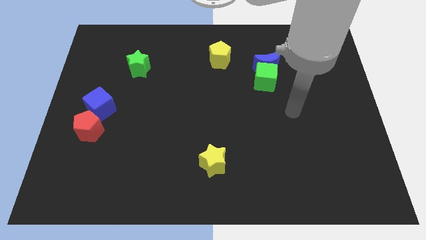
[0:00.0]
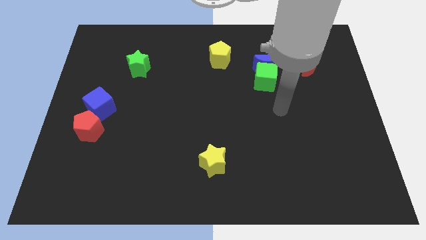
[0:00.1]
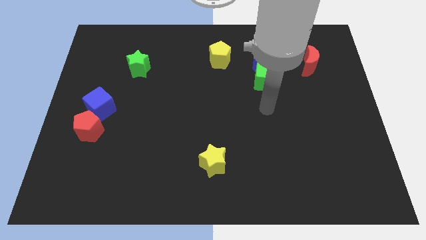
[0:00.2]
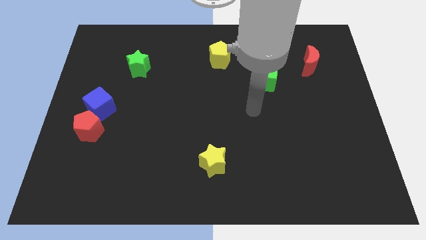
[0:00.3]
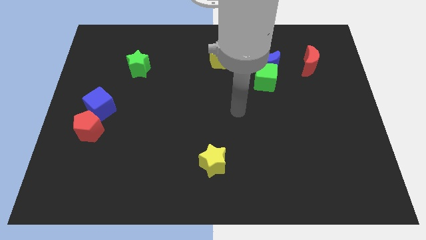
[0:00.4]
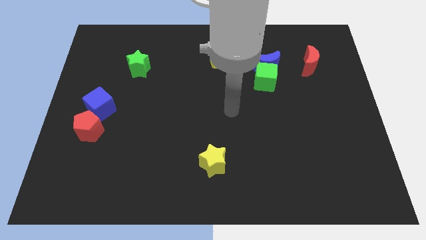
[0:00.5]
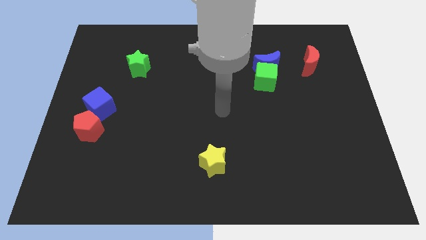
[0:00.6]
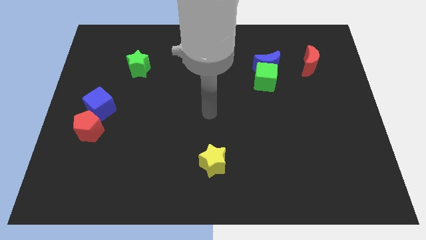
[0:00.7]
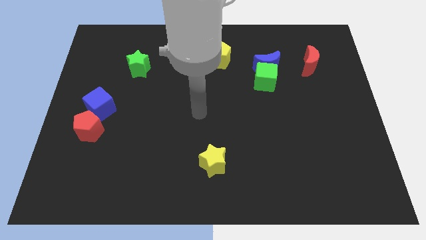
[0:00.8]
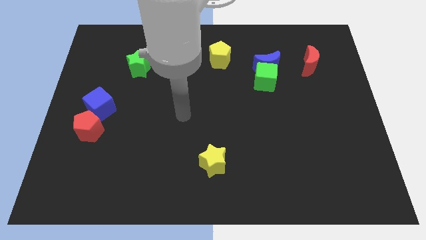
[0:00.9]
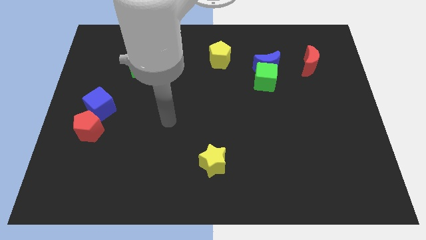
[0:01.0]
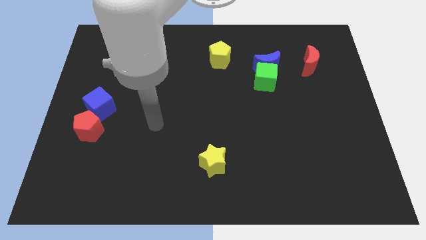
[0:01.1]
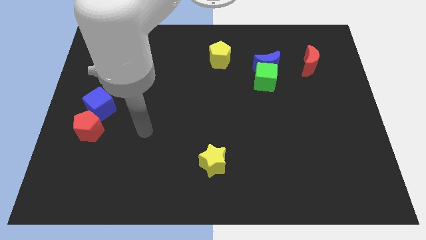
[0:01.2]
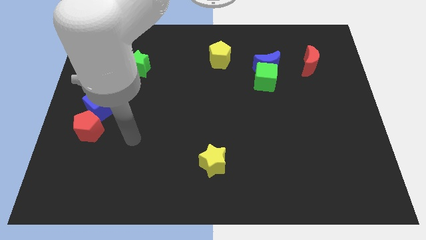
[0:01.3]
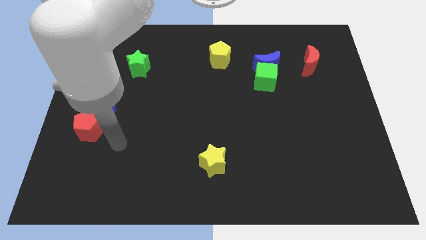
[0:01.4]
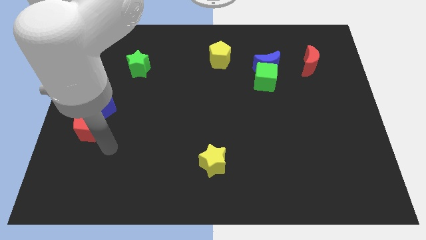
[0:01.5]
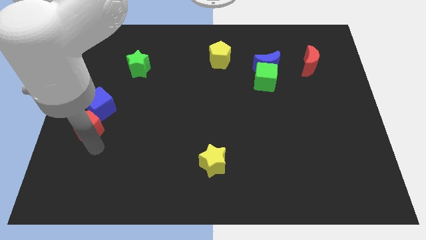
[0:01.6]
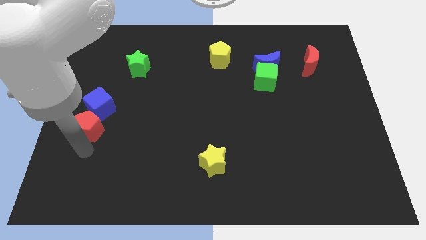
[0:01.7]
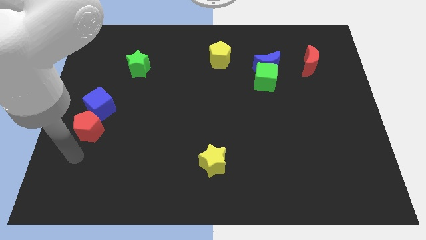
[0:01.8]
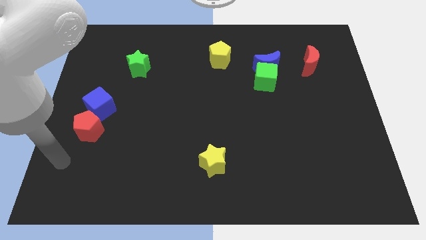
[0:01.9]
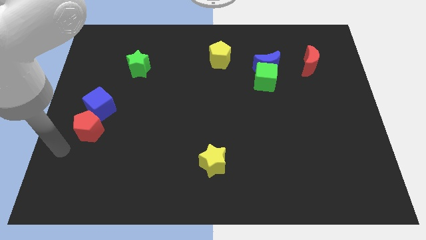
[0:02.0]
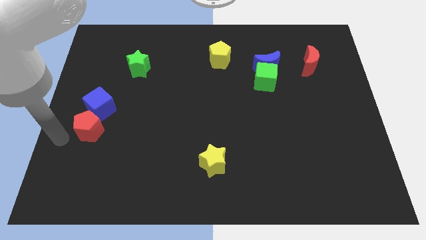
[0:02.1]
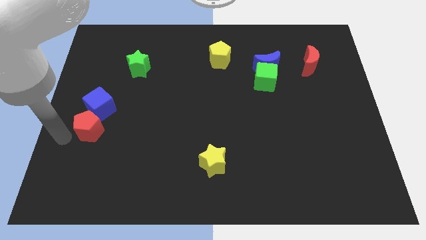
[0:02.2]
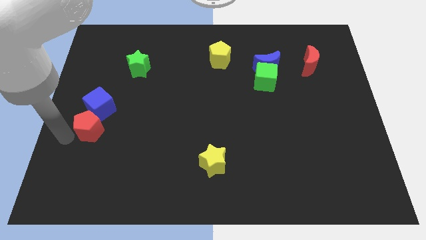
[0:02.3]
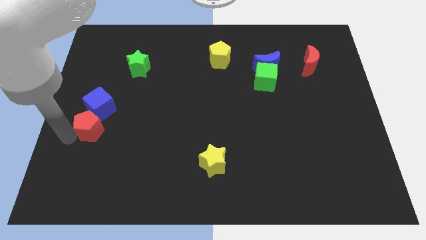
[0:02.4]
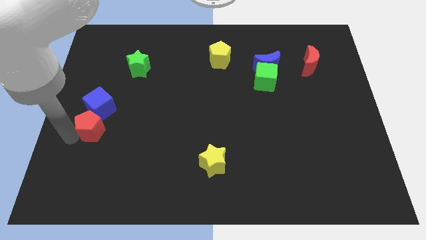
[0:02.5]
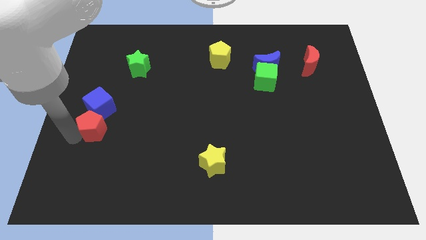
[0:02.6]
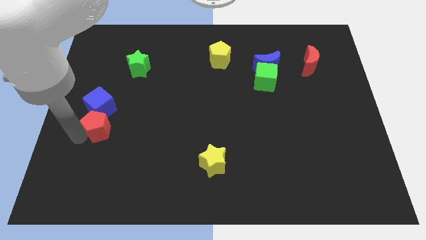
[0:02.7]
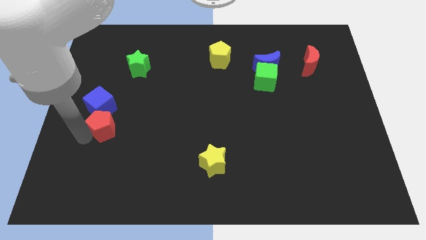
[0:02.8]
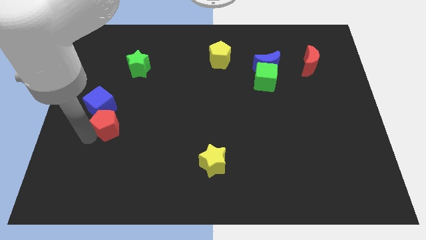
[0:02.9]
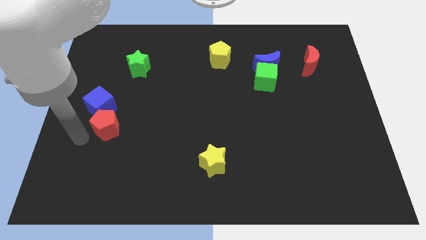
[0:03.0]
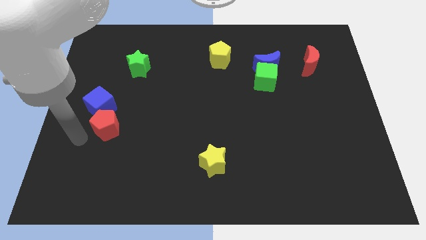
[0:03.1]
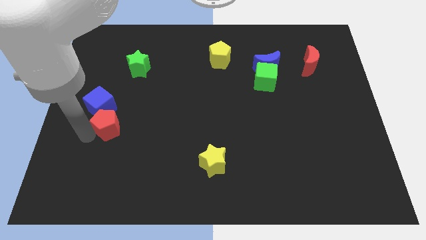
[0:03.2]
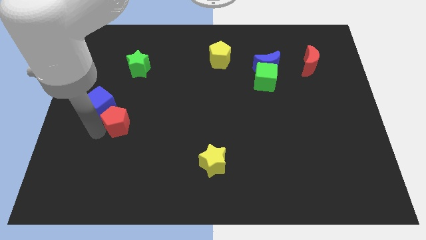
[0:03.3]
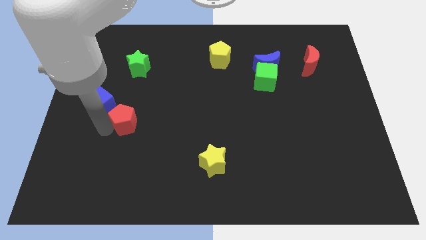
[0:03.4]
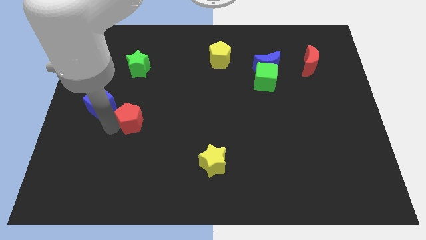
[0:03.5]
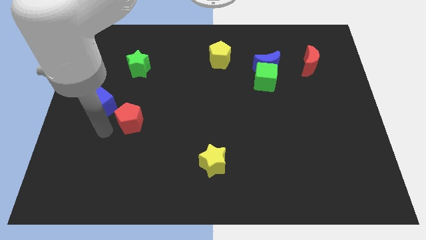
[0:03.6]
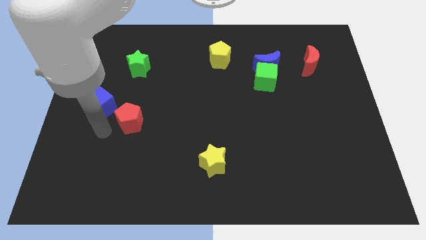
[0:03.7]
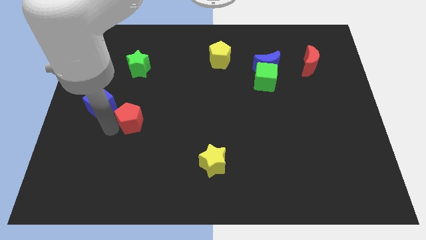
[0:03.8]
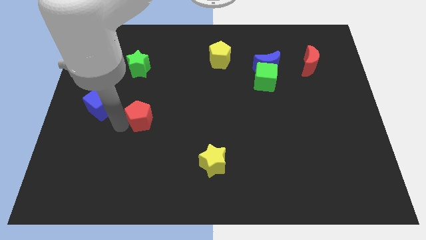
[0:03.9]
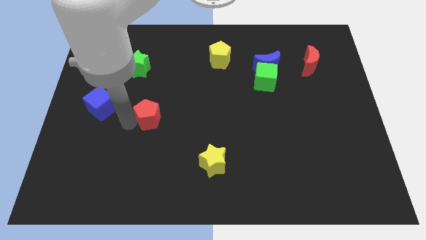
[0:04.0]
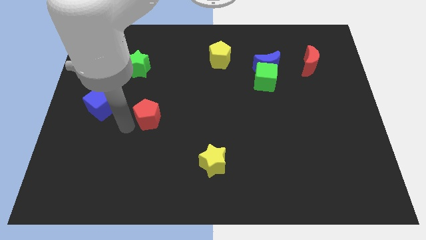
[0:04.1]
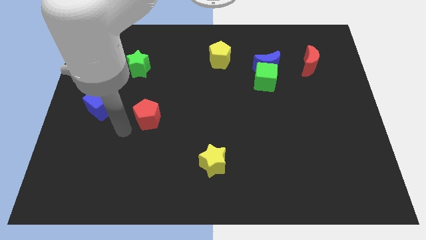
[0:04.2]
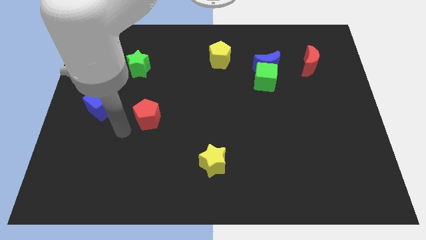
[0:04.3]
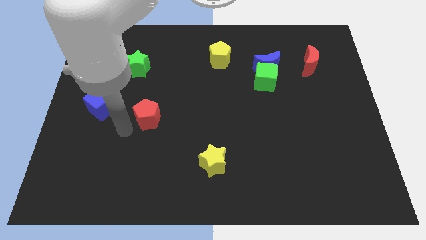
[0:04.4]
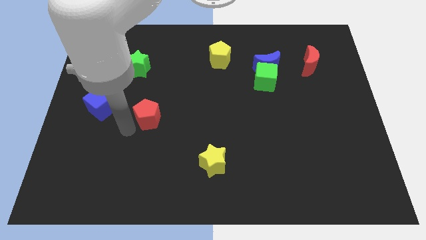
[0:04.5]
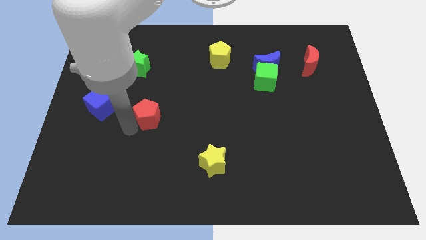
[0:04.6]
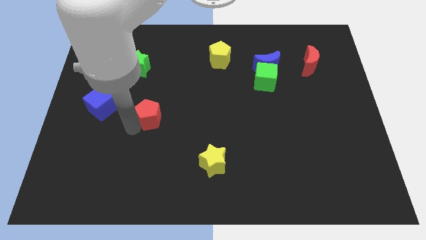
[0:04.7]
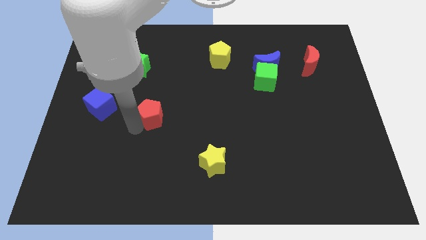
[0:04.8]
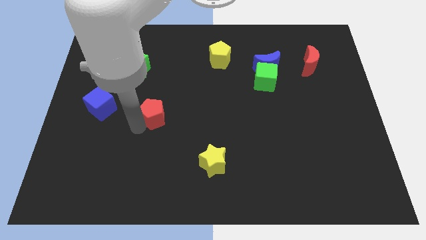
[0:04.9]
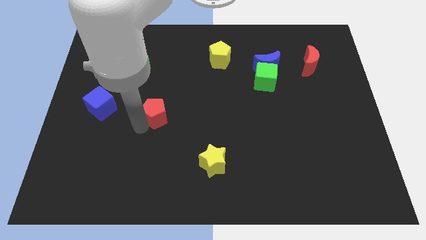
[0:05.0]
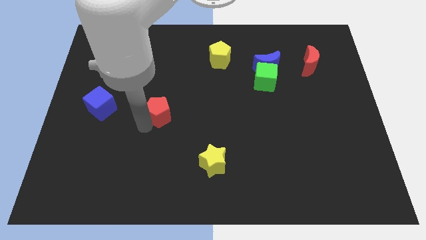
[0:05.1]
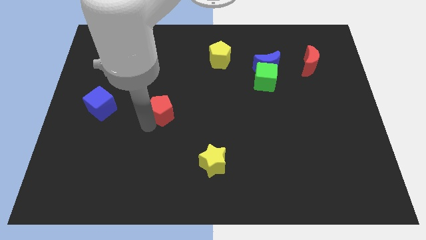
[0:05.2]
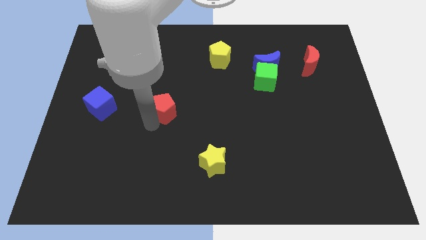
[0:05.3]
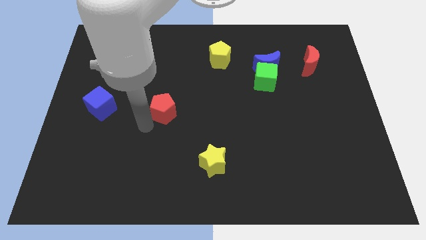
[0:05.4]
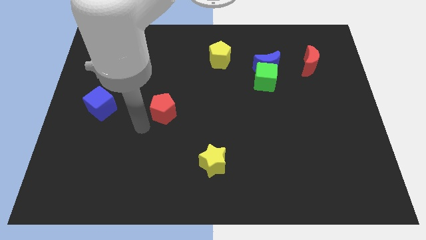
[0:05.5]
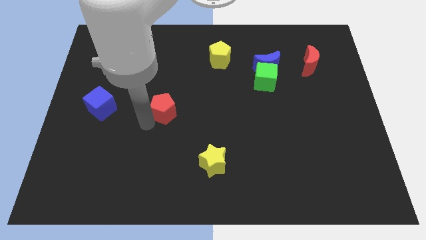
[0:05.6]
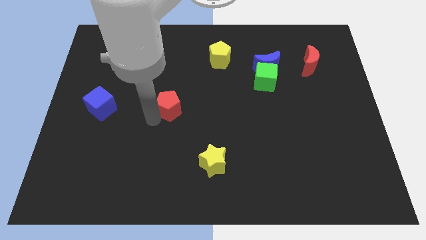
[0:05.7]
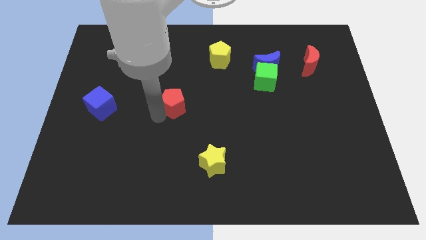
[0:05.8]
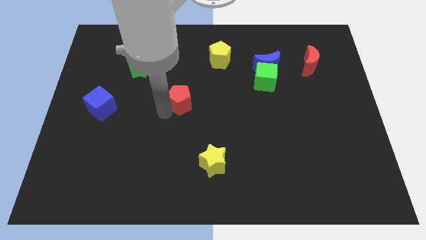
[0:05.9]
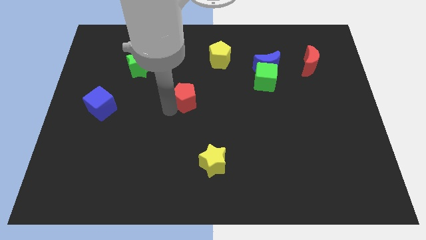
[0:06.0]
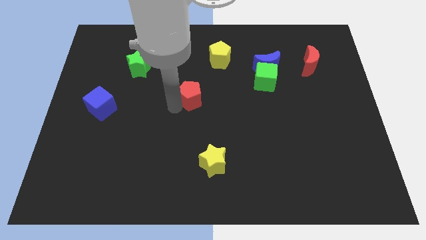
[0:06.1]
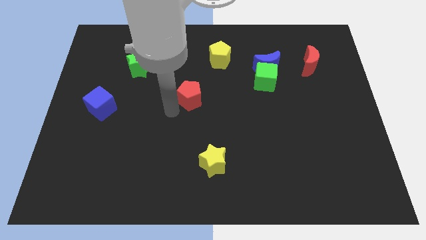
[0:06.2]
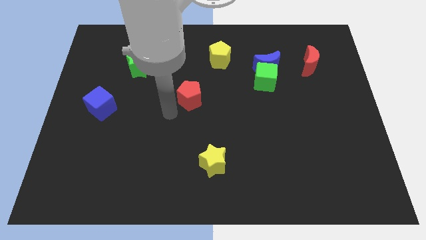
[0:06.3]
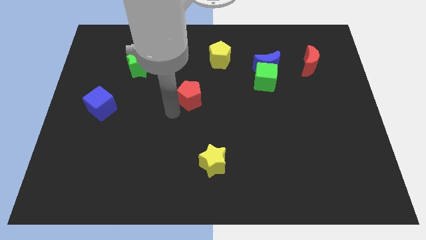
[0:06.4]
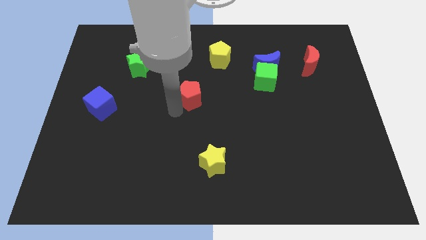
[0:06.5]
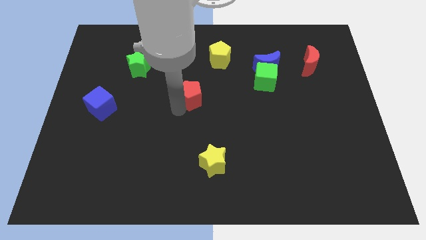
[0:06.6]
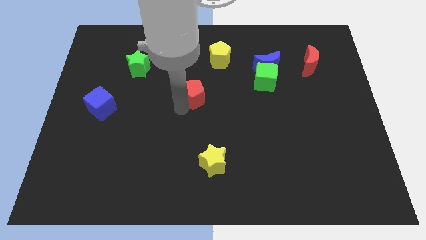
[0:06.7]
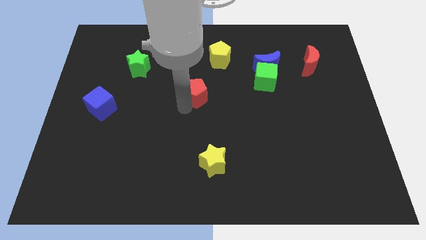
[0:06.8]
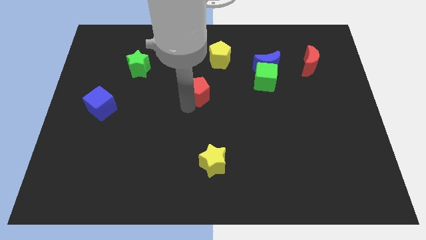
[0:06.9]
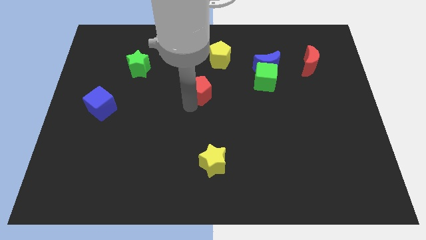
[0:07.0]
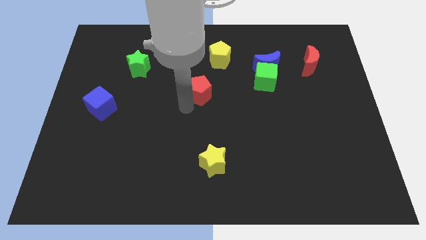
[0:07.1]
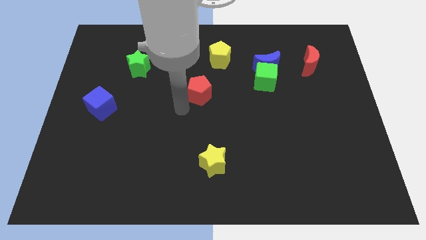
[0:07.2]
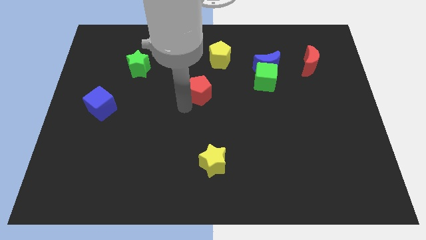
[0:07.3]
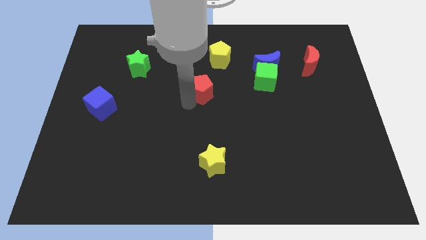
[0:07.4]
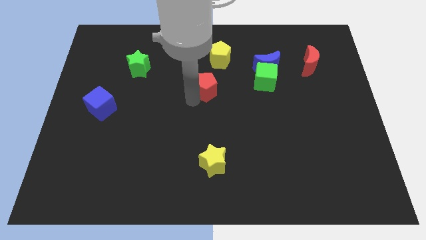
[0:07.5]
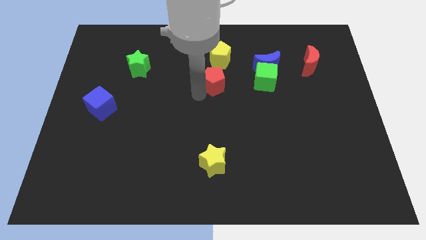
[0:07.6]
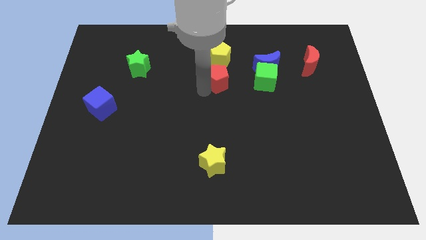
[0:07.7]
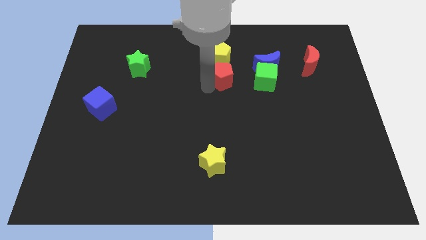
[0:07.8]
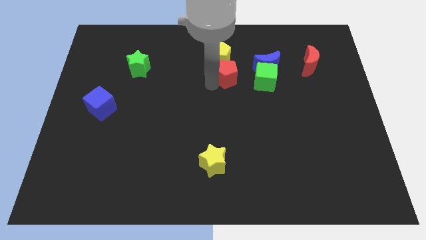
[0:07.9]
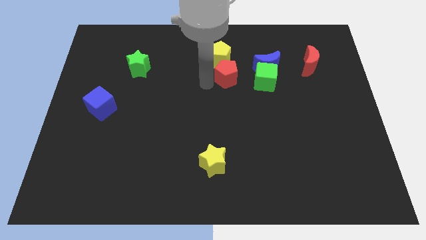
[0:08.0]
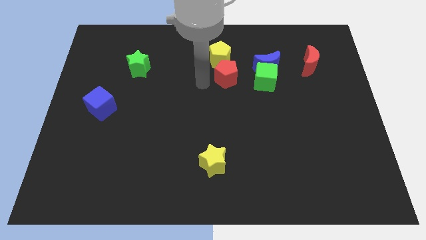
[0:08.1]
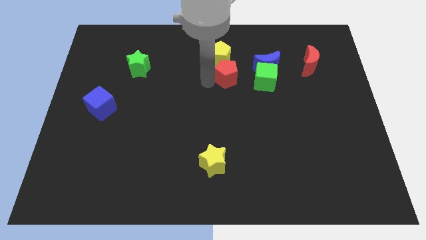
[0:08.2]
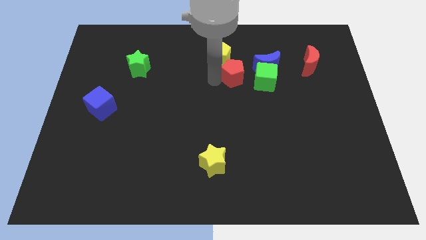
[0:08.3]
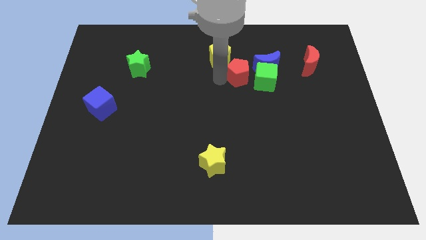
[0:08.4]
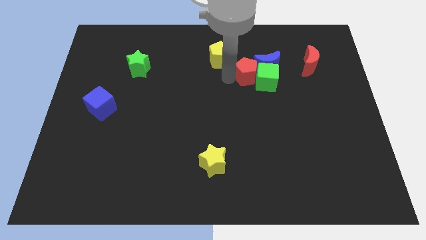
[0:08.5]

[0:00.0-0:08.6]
move the red pentagon towards the blue moon
